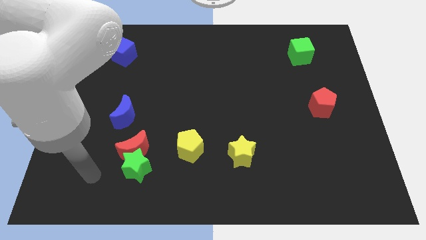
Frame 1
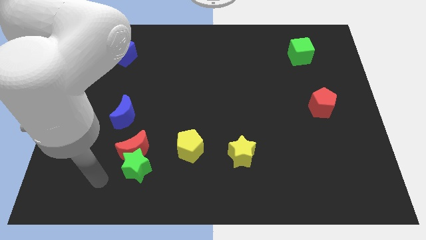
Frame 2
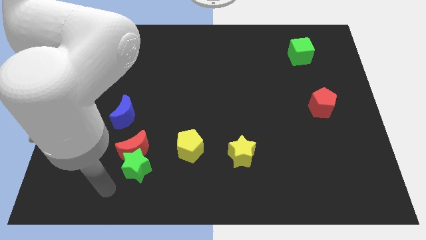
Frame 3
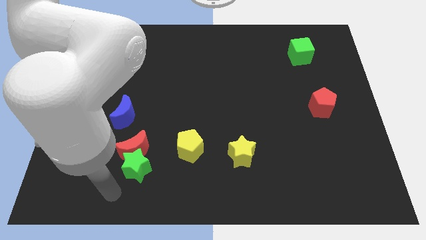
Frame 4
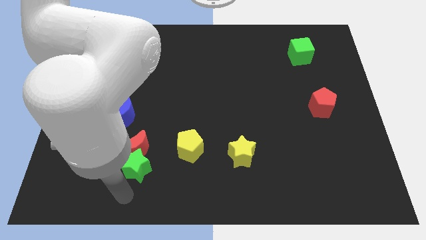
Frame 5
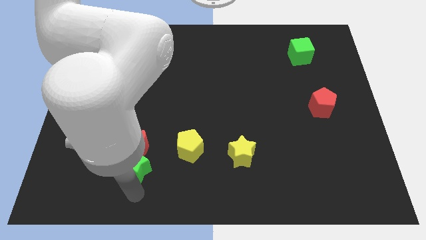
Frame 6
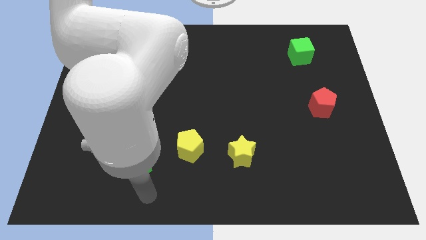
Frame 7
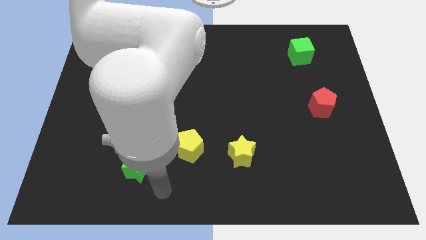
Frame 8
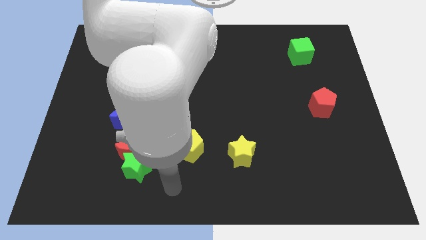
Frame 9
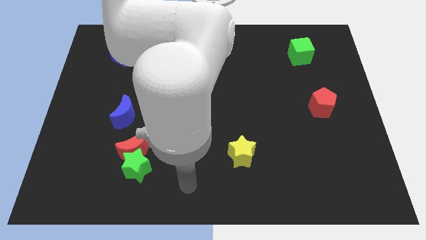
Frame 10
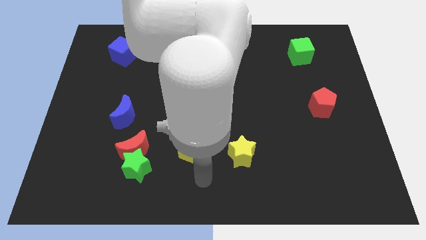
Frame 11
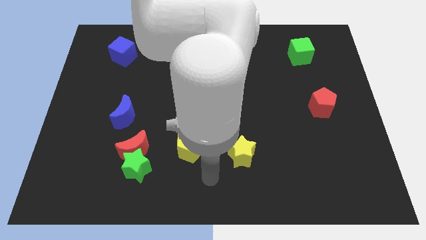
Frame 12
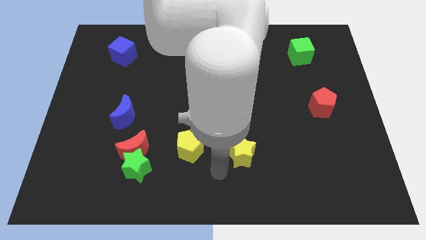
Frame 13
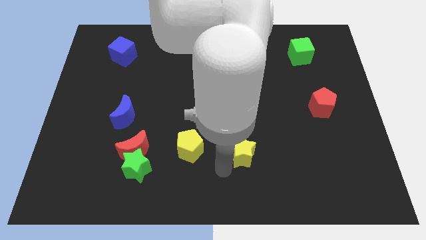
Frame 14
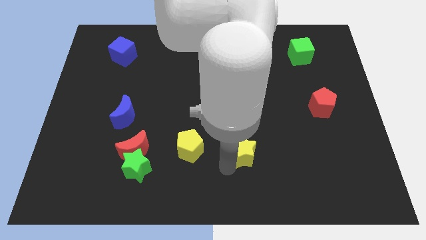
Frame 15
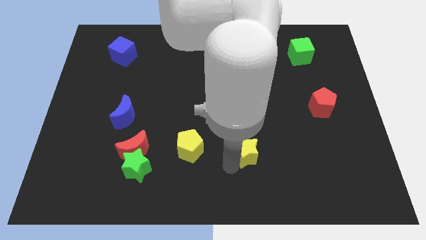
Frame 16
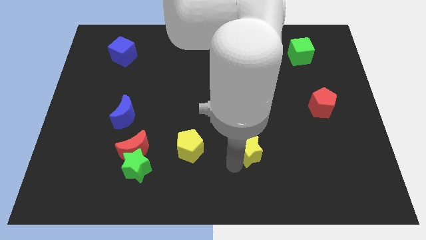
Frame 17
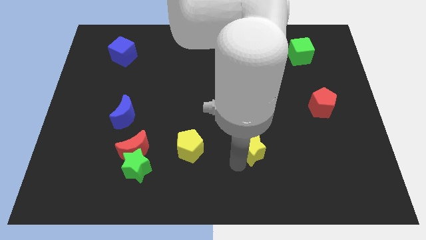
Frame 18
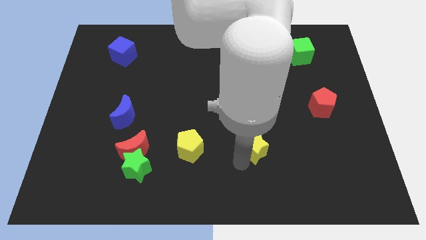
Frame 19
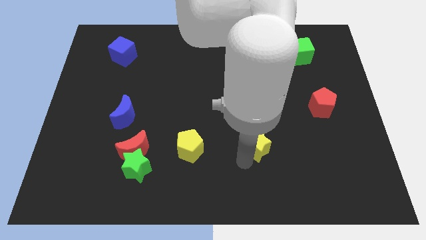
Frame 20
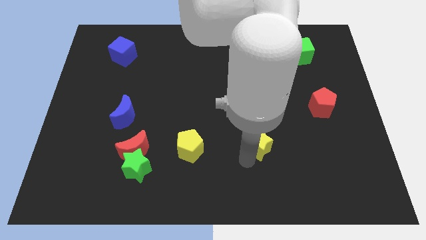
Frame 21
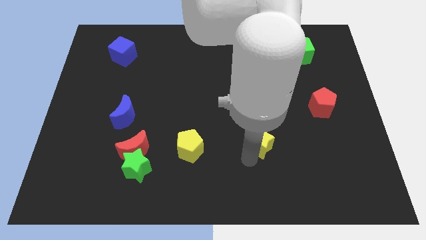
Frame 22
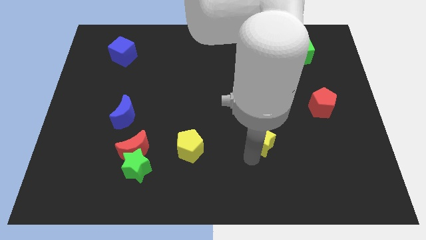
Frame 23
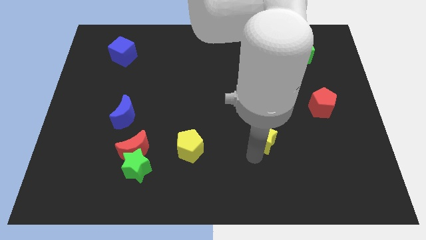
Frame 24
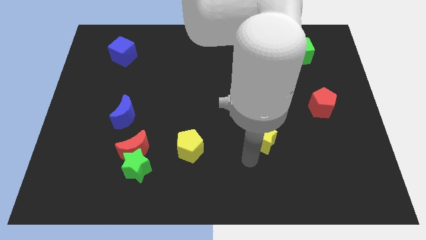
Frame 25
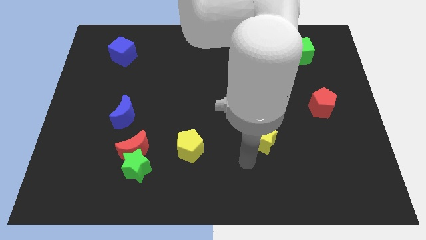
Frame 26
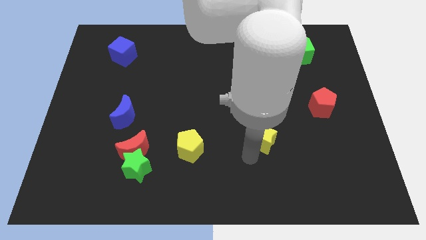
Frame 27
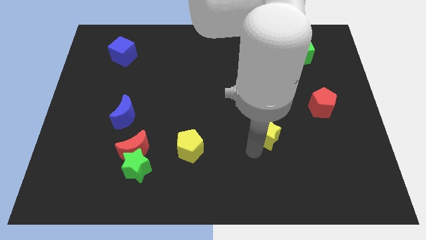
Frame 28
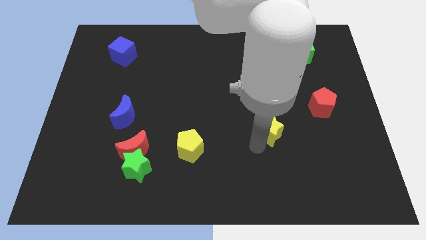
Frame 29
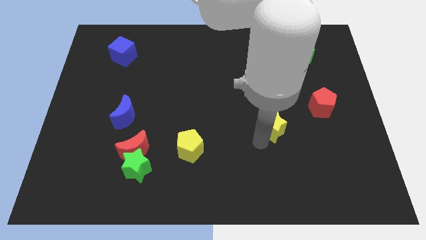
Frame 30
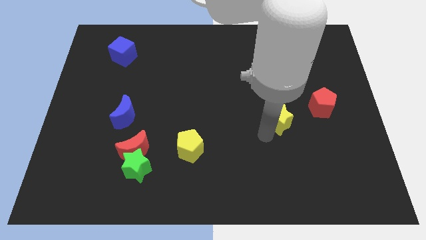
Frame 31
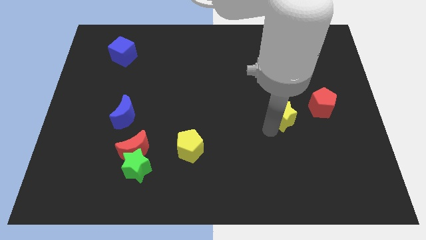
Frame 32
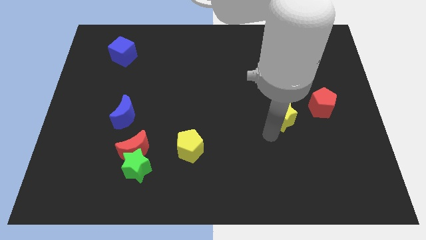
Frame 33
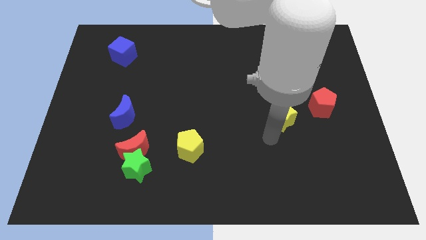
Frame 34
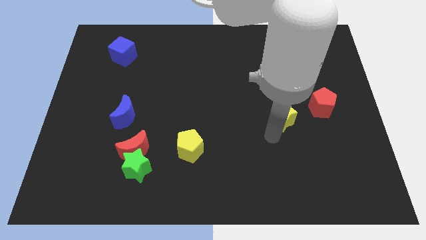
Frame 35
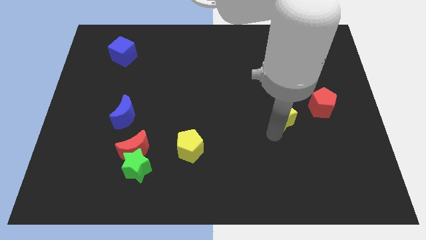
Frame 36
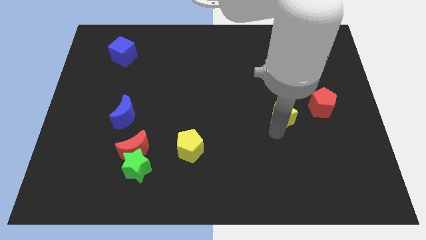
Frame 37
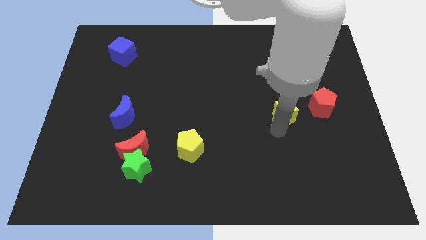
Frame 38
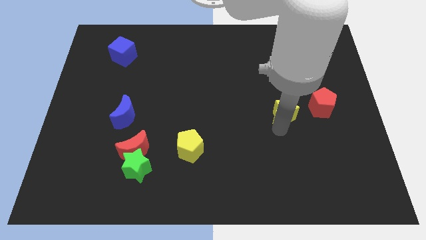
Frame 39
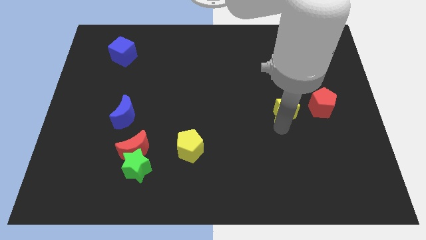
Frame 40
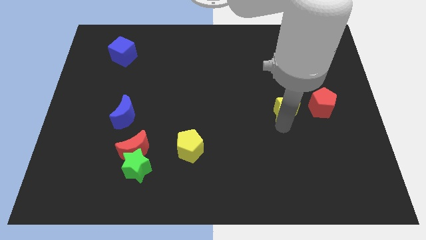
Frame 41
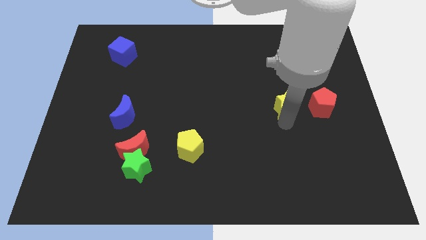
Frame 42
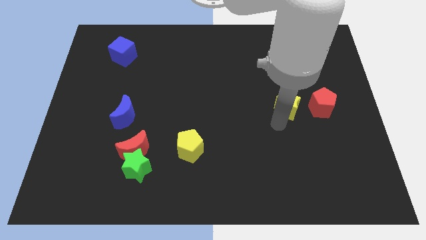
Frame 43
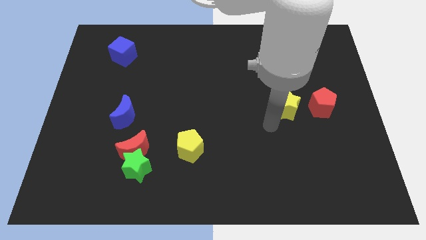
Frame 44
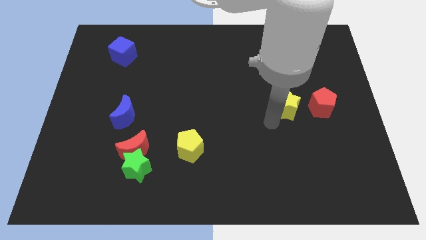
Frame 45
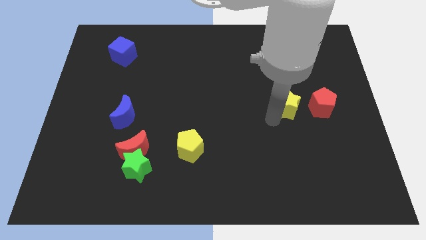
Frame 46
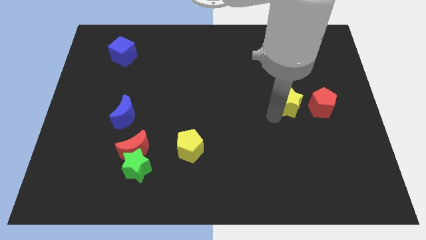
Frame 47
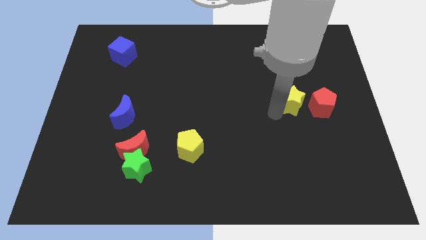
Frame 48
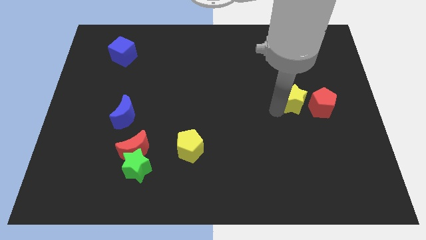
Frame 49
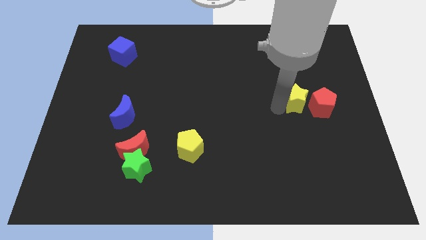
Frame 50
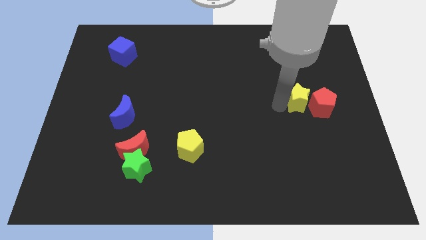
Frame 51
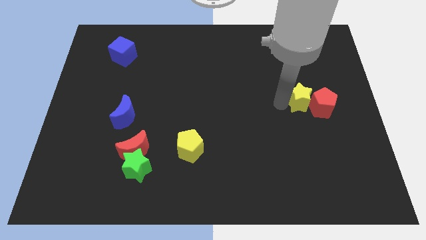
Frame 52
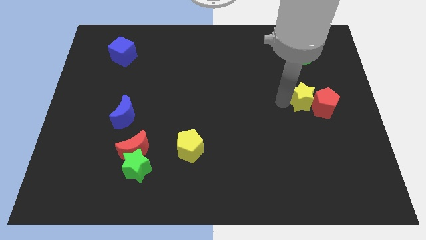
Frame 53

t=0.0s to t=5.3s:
put the yellow star to the bottom of the green cube

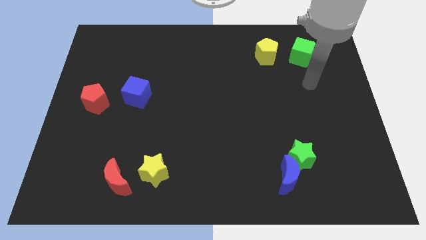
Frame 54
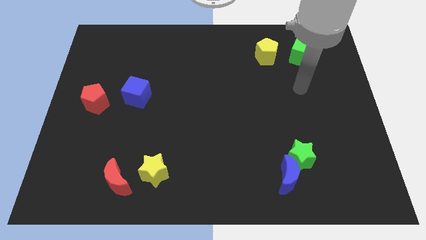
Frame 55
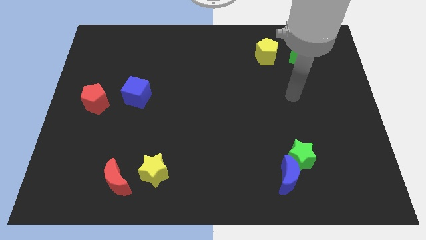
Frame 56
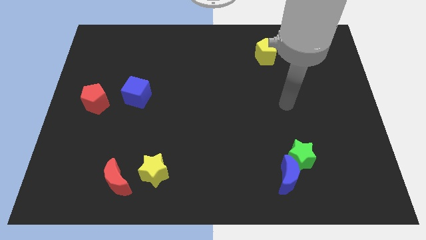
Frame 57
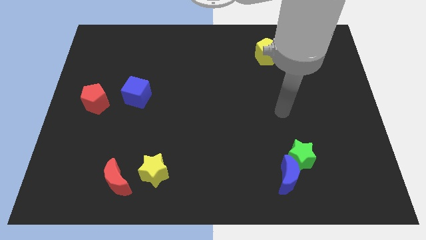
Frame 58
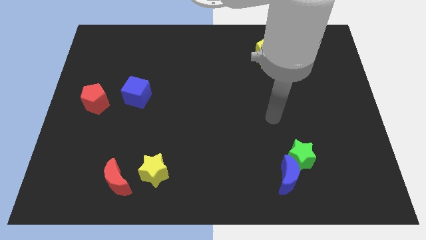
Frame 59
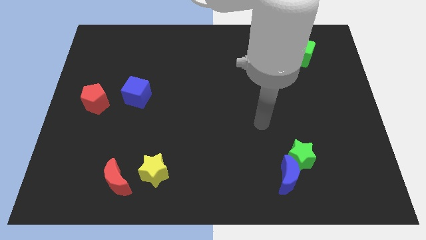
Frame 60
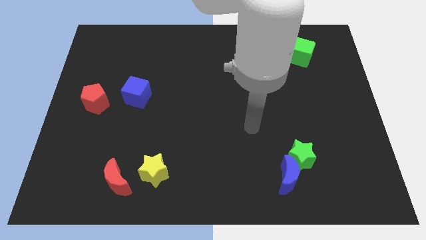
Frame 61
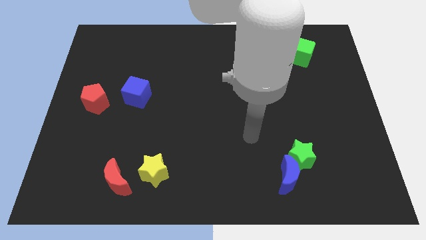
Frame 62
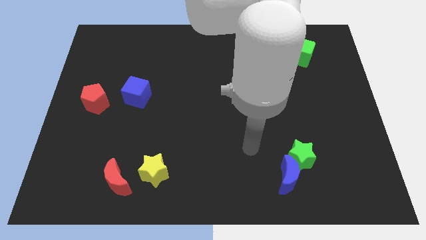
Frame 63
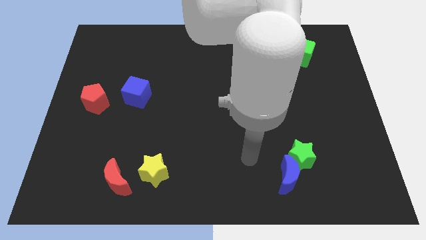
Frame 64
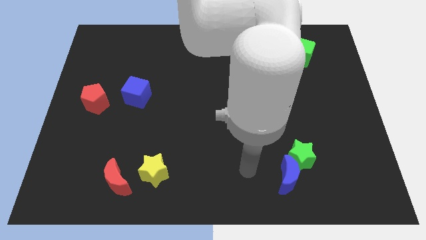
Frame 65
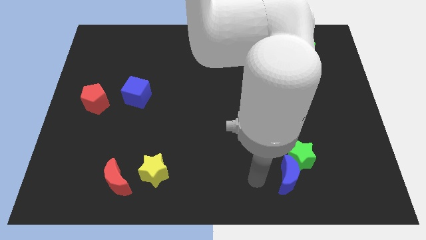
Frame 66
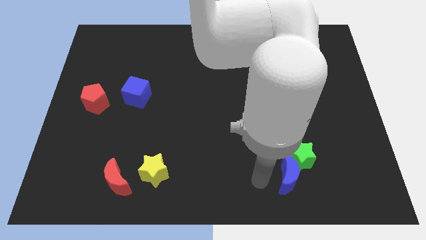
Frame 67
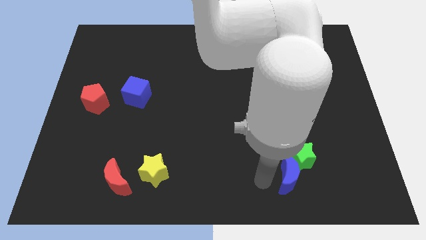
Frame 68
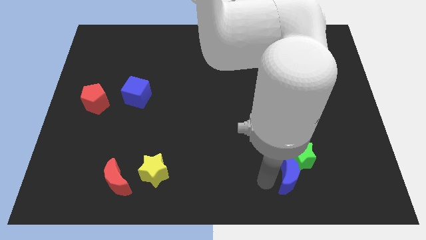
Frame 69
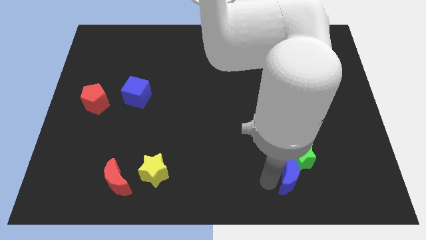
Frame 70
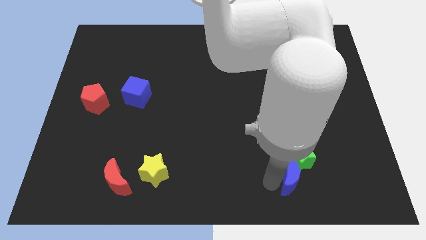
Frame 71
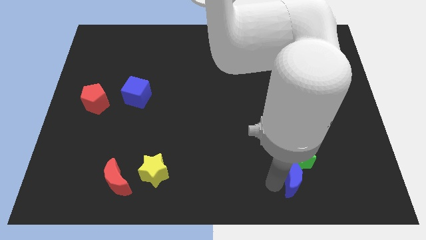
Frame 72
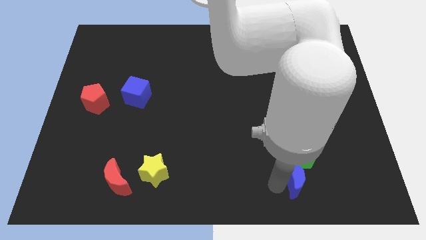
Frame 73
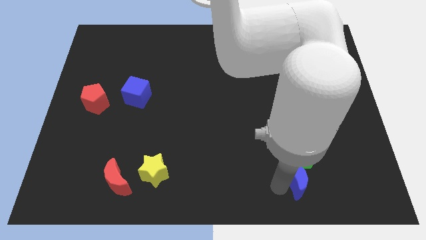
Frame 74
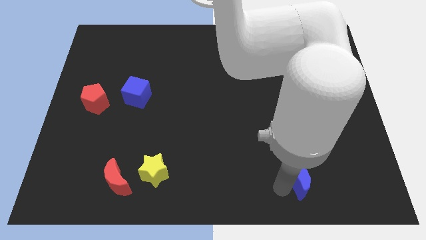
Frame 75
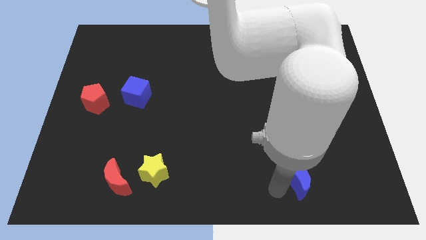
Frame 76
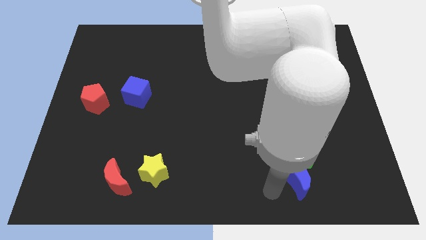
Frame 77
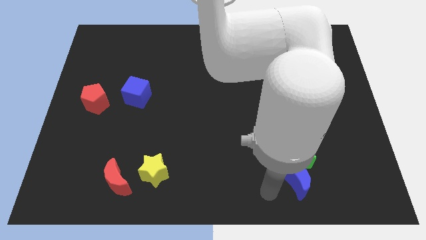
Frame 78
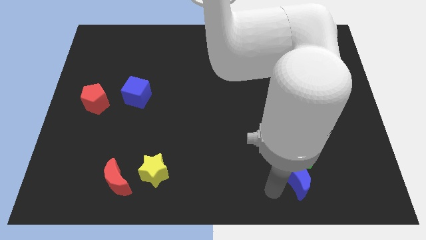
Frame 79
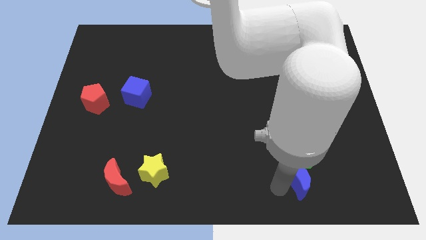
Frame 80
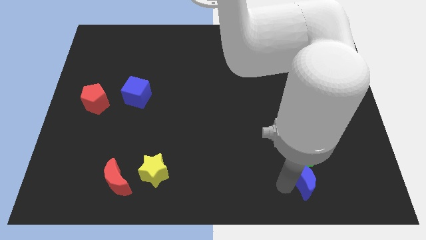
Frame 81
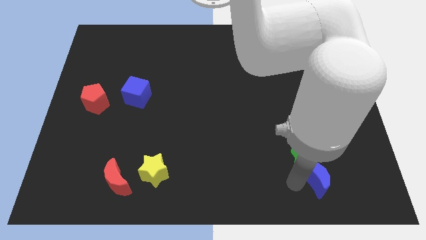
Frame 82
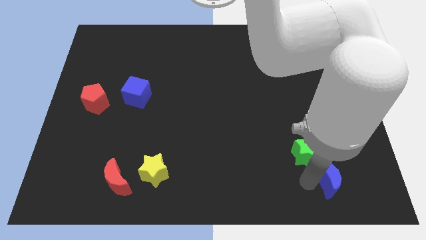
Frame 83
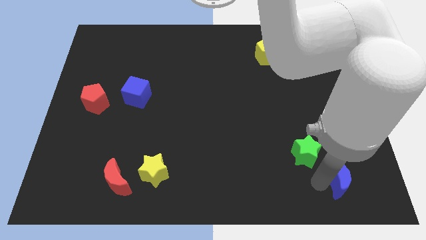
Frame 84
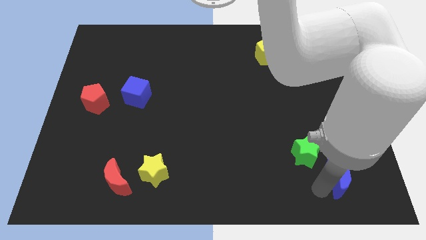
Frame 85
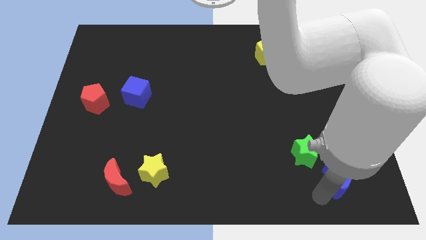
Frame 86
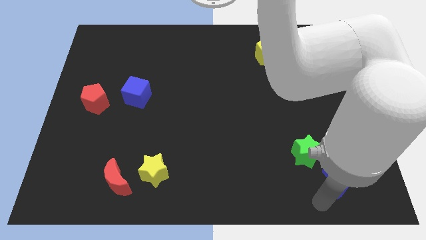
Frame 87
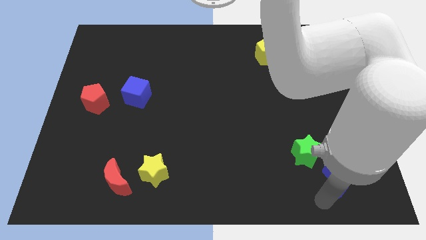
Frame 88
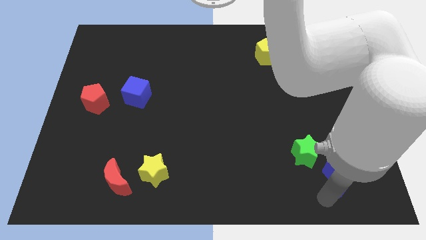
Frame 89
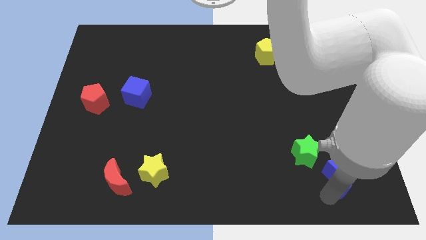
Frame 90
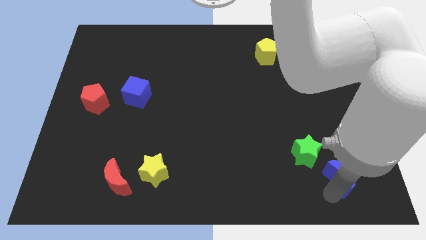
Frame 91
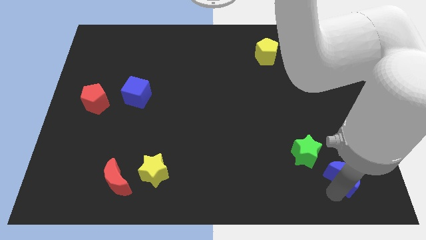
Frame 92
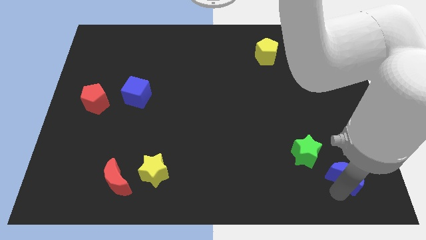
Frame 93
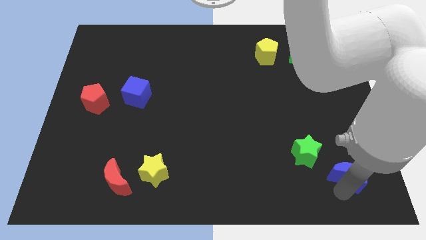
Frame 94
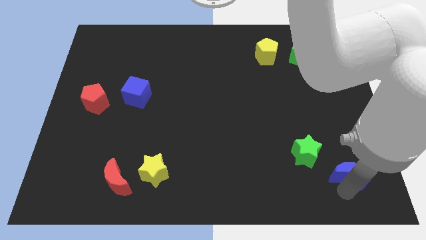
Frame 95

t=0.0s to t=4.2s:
put the blue moon right of the green star
